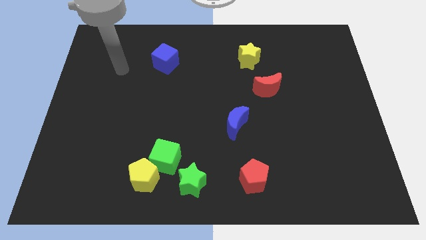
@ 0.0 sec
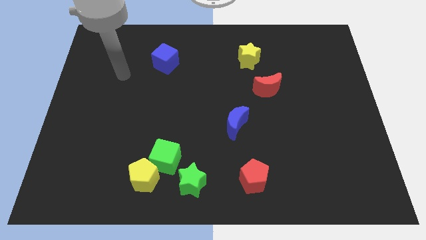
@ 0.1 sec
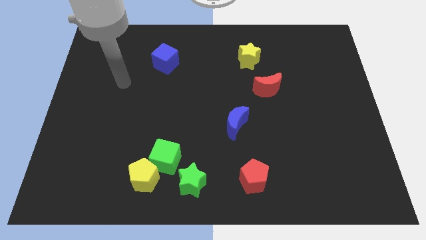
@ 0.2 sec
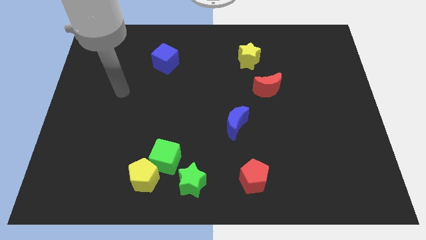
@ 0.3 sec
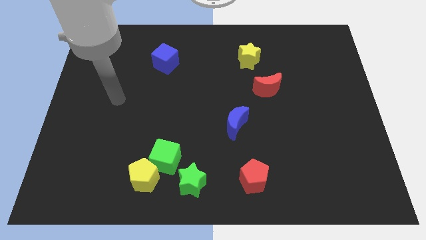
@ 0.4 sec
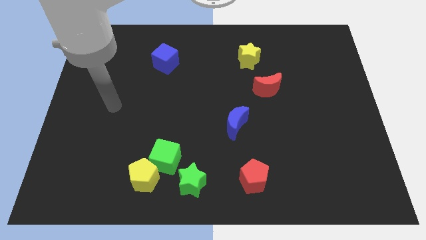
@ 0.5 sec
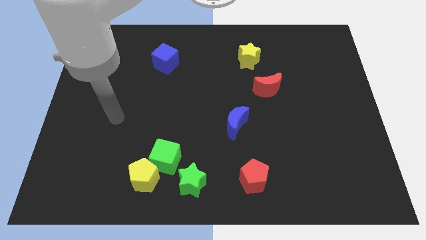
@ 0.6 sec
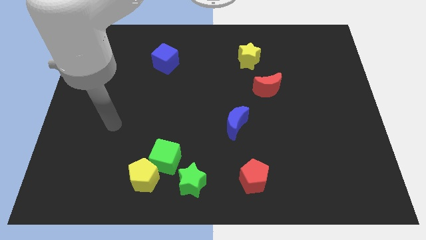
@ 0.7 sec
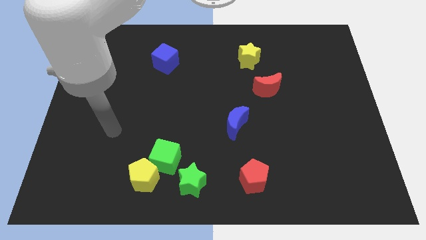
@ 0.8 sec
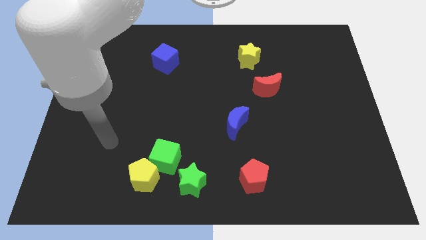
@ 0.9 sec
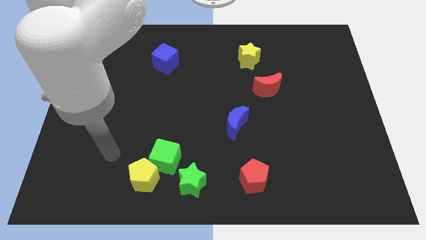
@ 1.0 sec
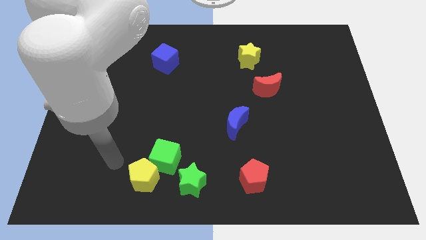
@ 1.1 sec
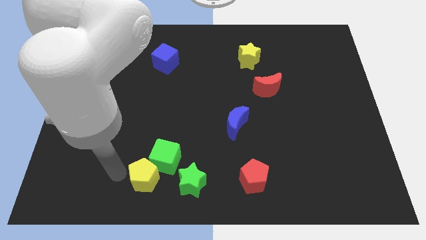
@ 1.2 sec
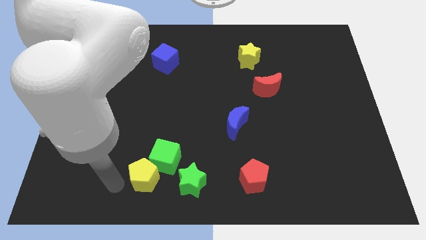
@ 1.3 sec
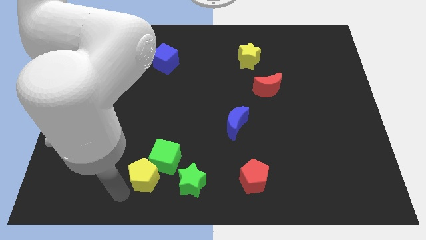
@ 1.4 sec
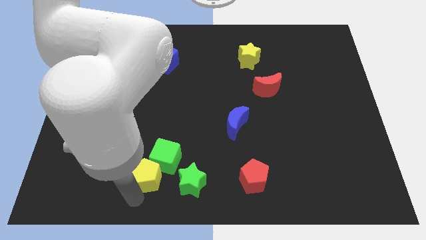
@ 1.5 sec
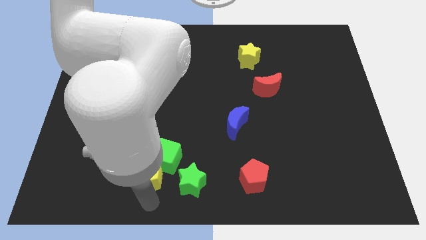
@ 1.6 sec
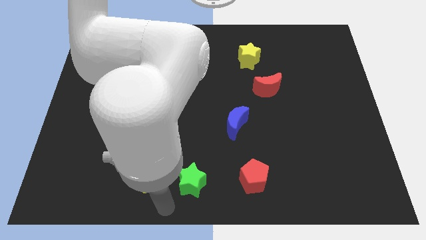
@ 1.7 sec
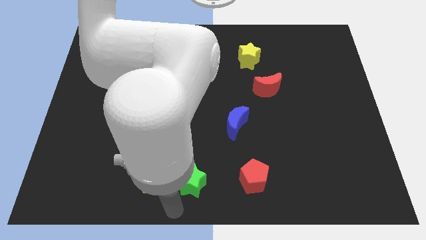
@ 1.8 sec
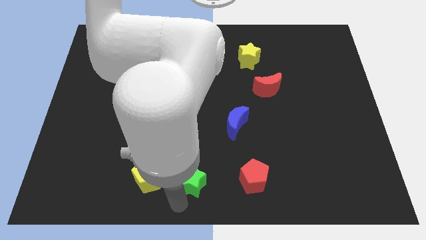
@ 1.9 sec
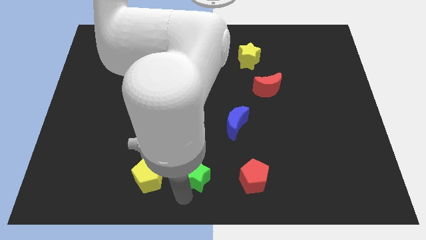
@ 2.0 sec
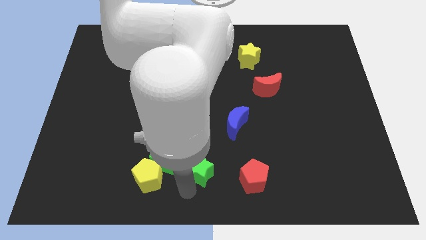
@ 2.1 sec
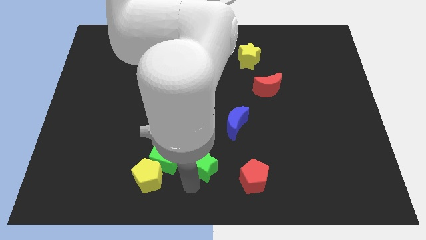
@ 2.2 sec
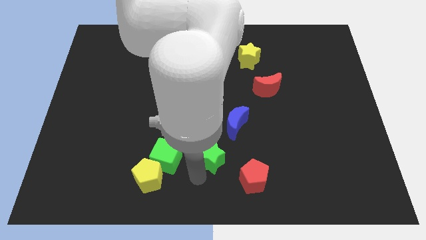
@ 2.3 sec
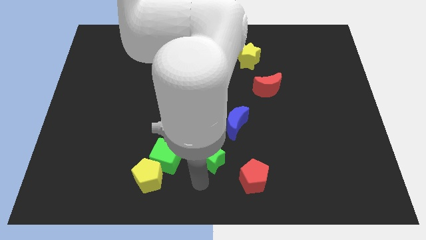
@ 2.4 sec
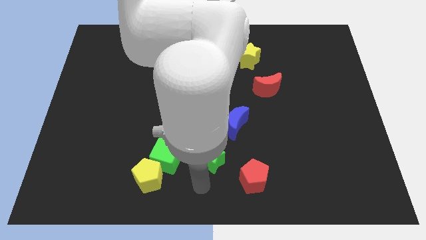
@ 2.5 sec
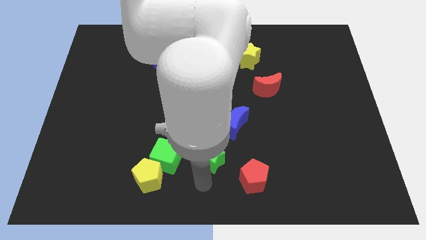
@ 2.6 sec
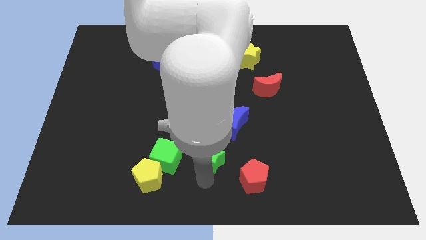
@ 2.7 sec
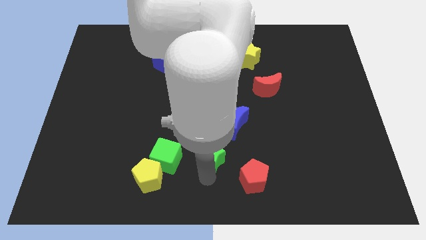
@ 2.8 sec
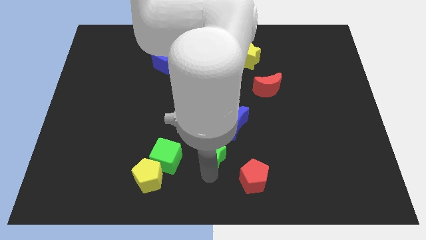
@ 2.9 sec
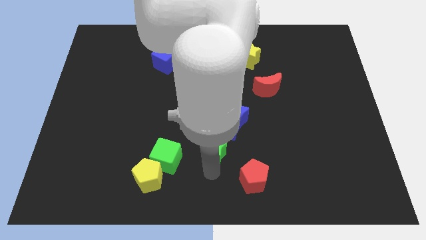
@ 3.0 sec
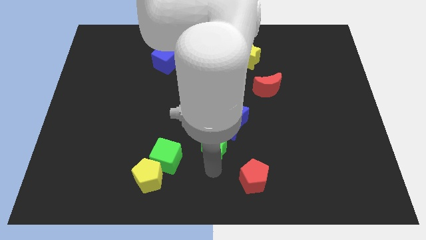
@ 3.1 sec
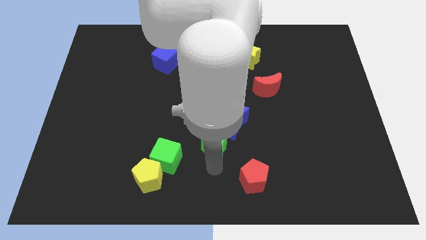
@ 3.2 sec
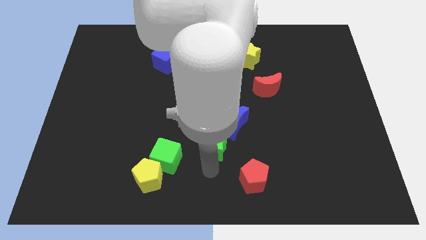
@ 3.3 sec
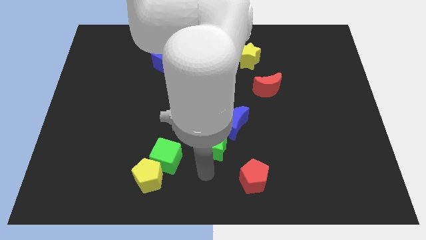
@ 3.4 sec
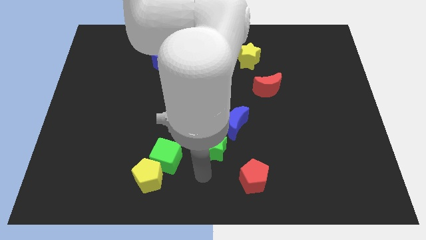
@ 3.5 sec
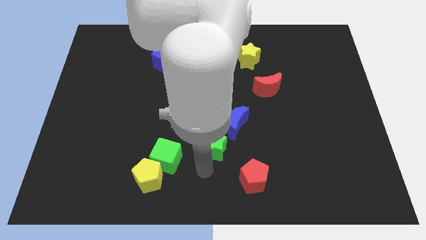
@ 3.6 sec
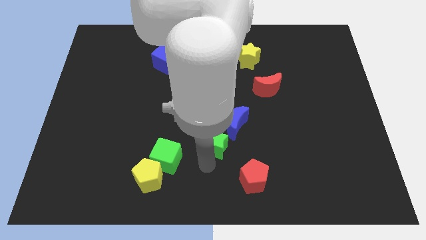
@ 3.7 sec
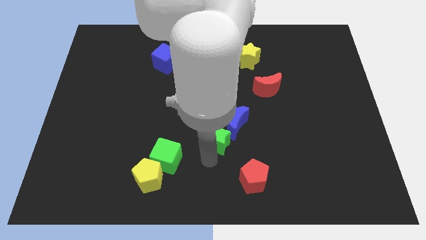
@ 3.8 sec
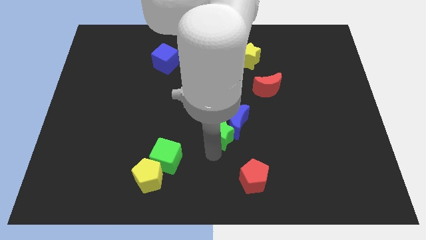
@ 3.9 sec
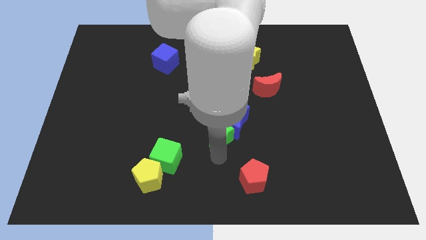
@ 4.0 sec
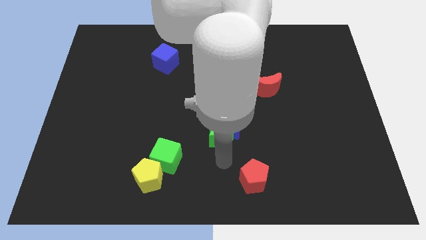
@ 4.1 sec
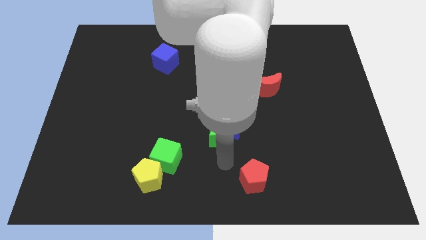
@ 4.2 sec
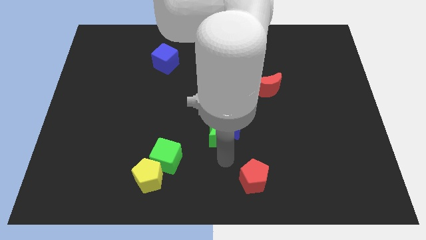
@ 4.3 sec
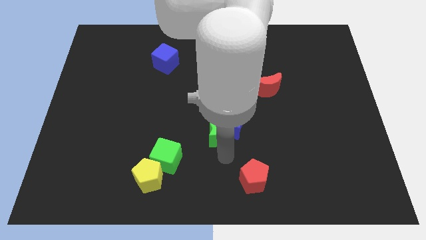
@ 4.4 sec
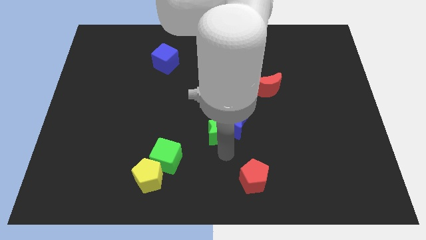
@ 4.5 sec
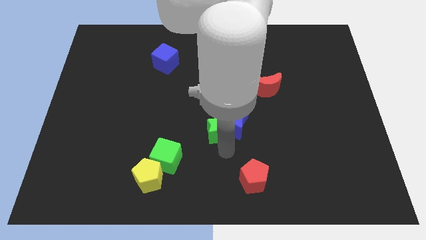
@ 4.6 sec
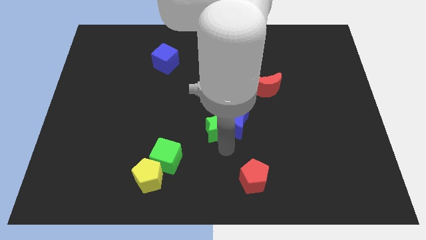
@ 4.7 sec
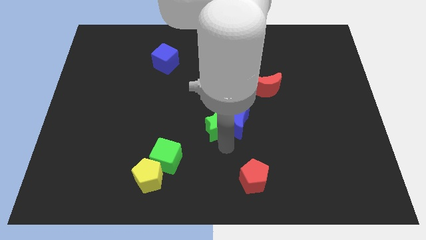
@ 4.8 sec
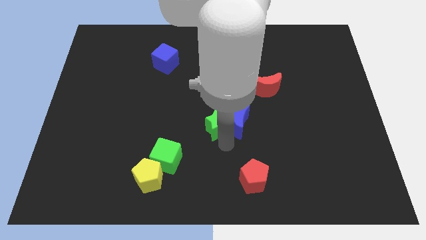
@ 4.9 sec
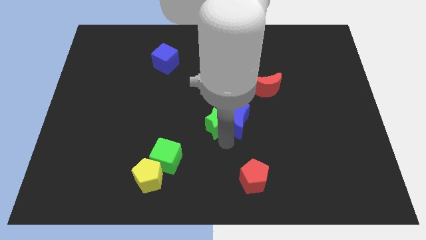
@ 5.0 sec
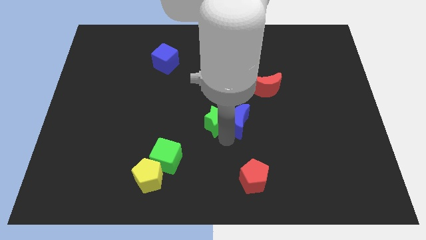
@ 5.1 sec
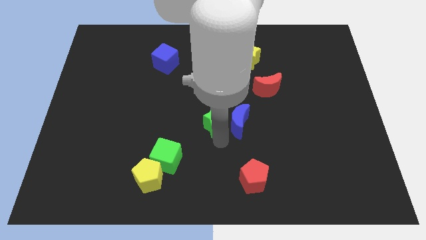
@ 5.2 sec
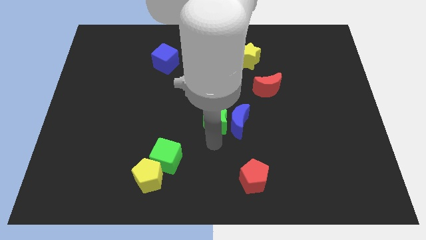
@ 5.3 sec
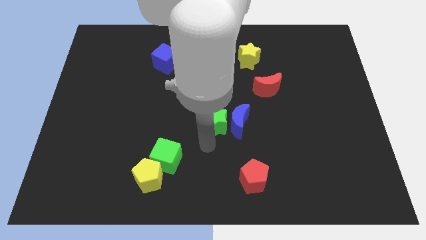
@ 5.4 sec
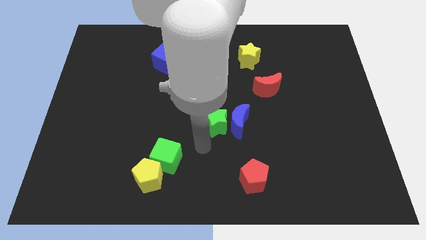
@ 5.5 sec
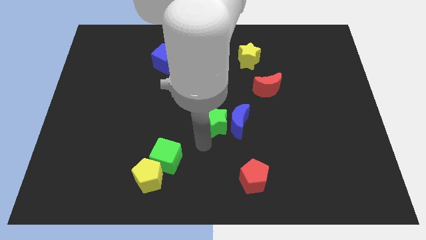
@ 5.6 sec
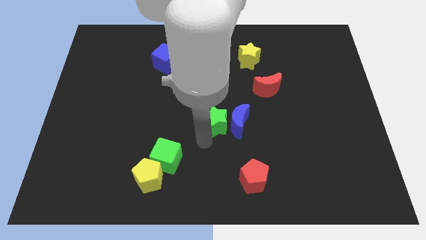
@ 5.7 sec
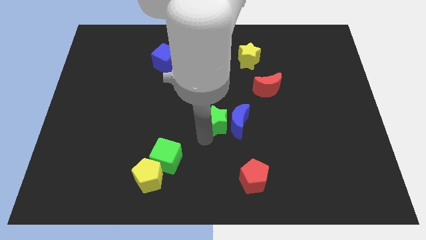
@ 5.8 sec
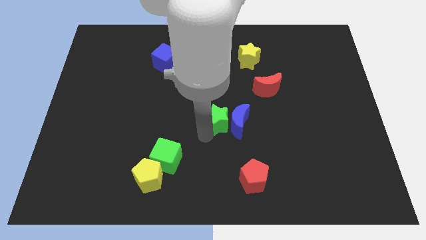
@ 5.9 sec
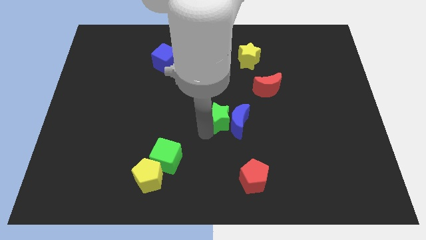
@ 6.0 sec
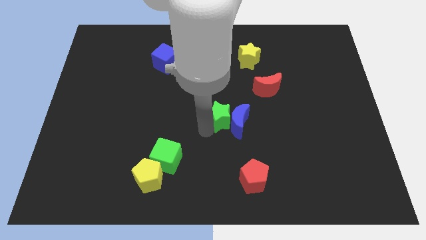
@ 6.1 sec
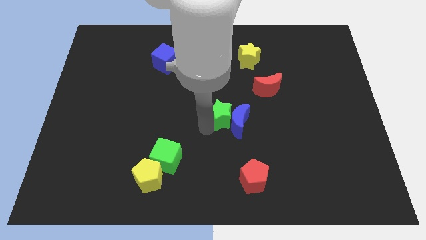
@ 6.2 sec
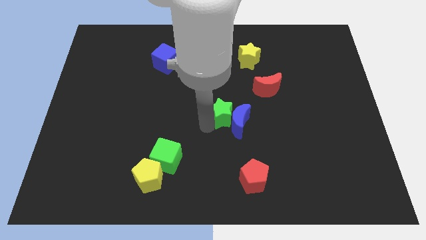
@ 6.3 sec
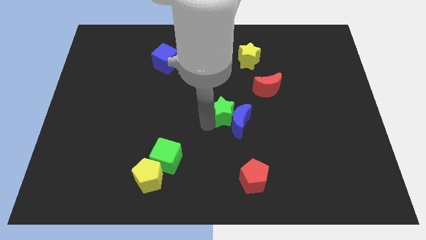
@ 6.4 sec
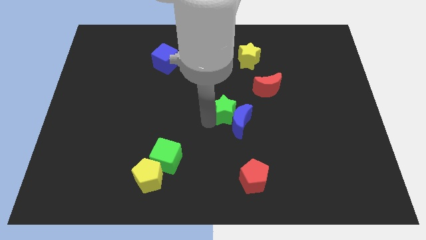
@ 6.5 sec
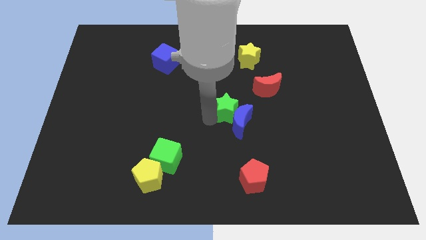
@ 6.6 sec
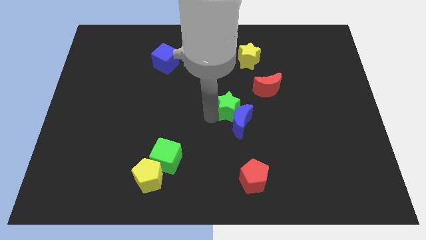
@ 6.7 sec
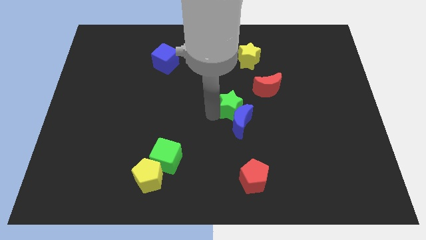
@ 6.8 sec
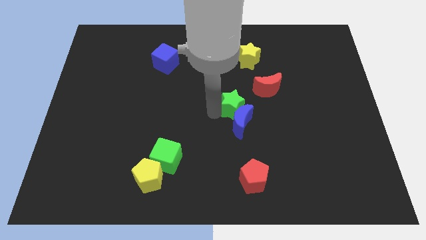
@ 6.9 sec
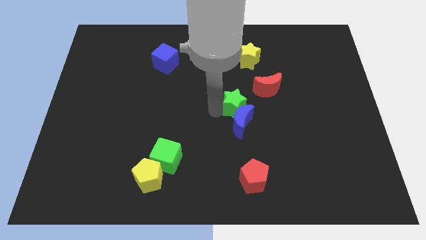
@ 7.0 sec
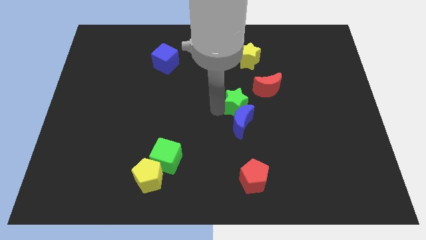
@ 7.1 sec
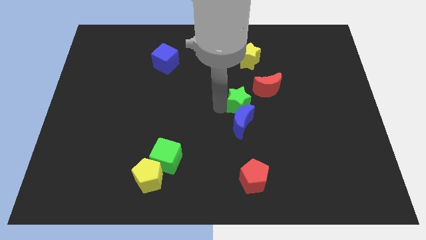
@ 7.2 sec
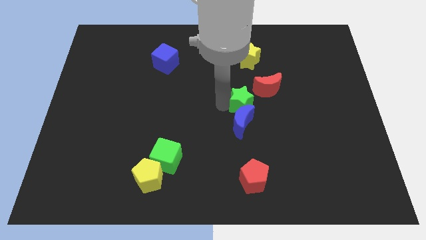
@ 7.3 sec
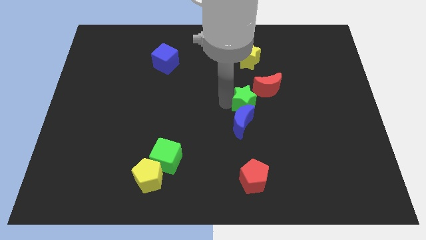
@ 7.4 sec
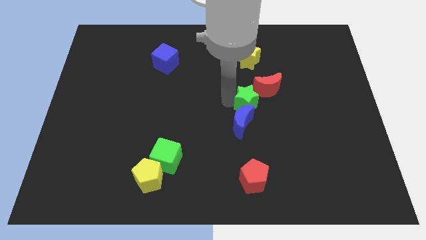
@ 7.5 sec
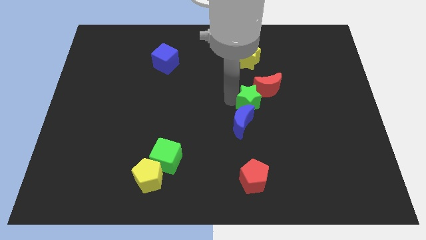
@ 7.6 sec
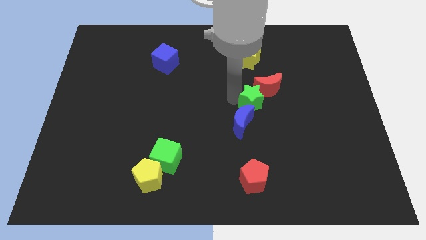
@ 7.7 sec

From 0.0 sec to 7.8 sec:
slide the green star close to the red moon

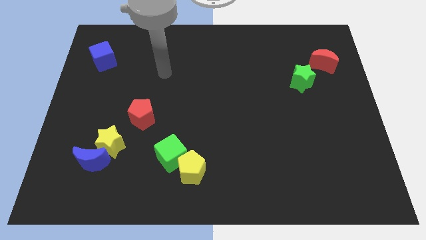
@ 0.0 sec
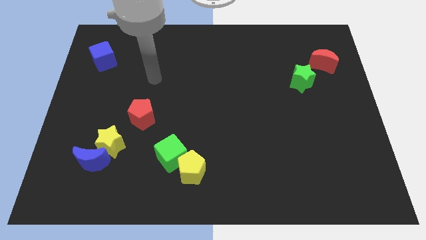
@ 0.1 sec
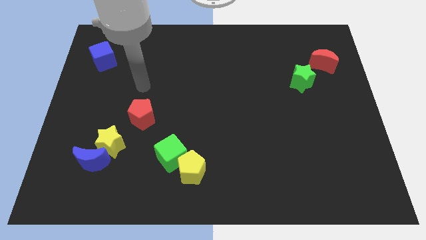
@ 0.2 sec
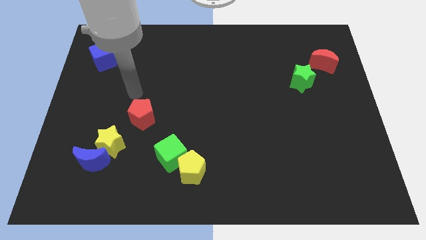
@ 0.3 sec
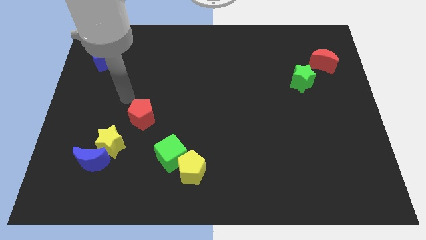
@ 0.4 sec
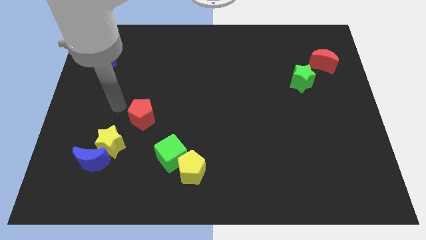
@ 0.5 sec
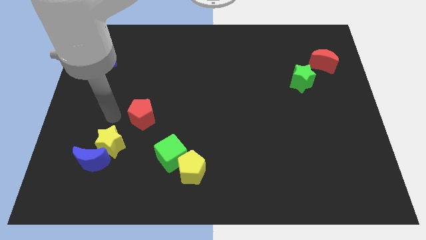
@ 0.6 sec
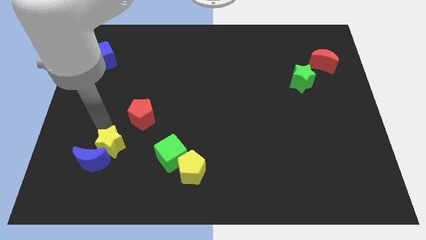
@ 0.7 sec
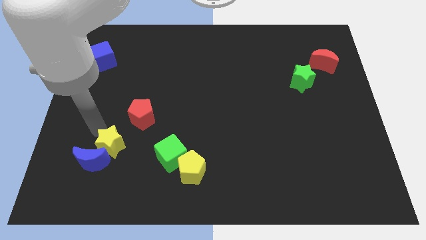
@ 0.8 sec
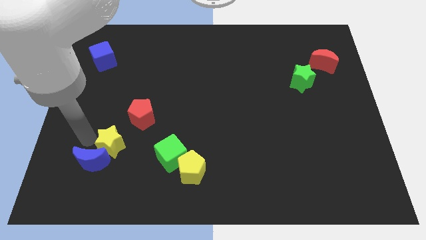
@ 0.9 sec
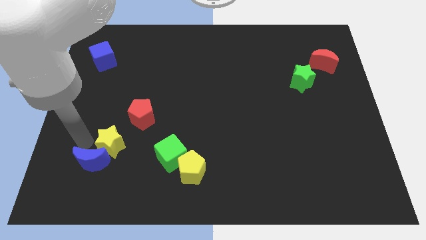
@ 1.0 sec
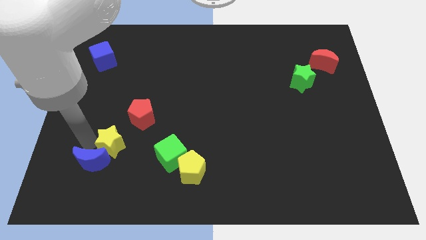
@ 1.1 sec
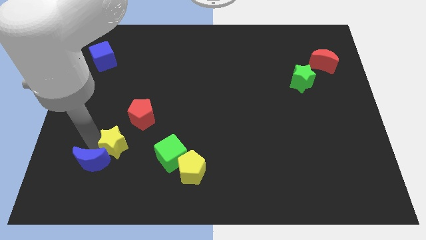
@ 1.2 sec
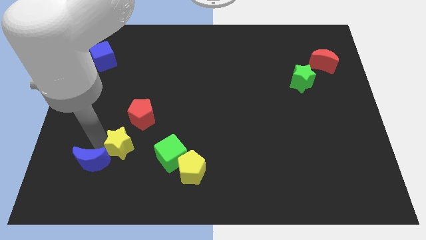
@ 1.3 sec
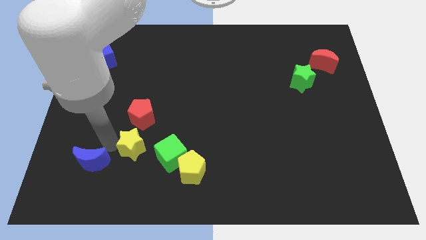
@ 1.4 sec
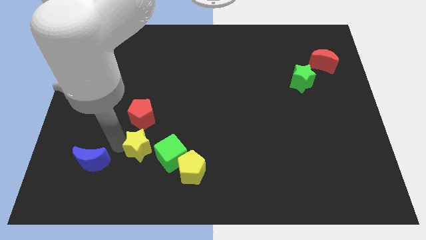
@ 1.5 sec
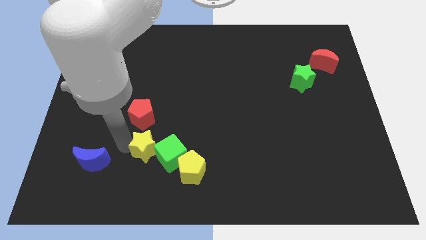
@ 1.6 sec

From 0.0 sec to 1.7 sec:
push the yellow star close to the green cube
